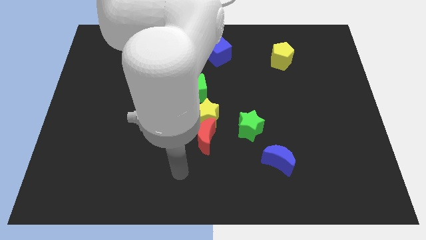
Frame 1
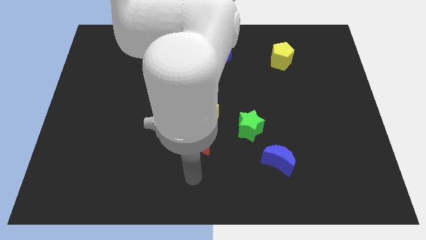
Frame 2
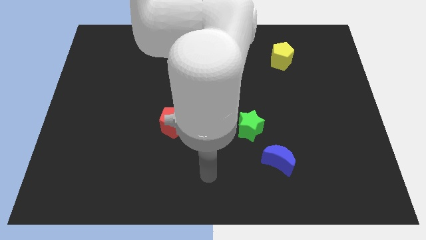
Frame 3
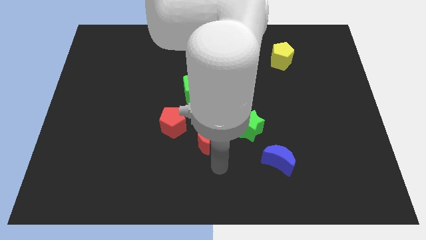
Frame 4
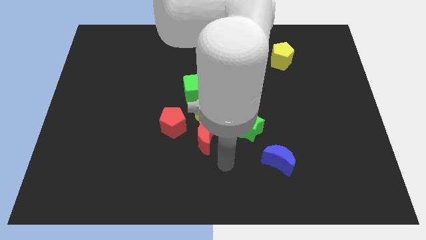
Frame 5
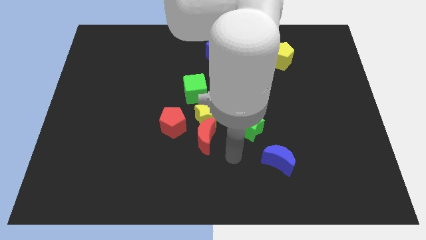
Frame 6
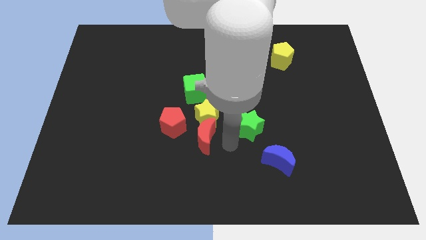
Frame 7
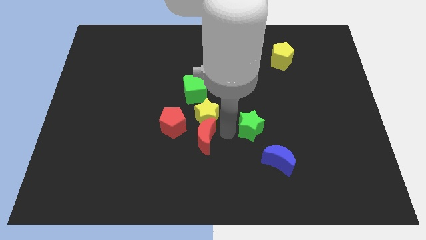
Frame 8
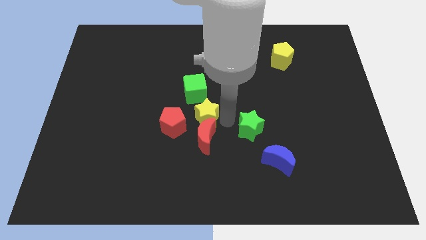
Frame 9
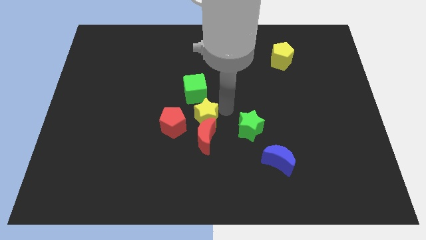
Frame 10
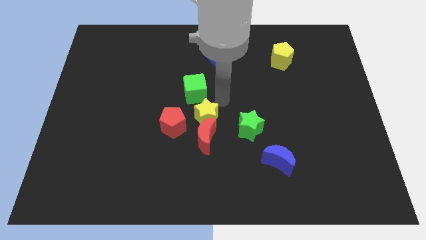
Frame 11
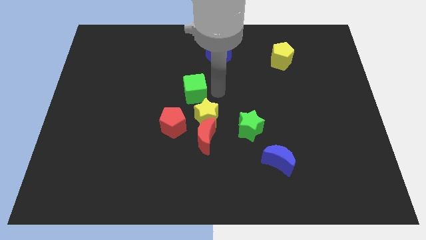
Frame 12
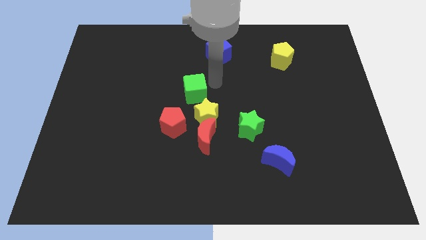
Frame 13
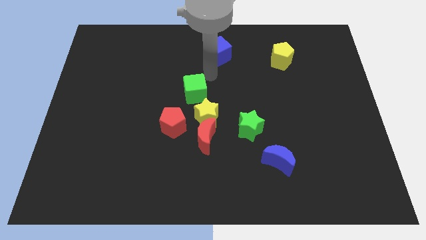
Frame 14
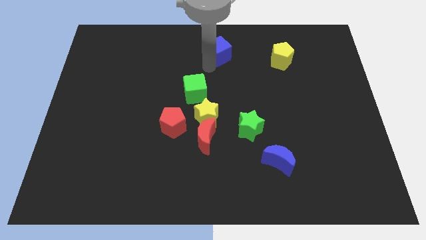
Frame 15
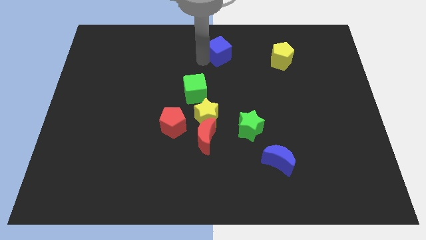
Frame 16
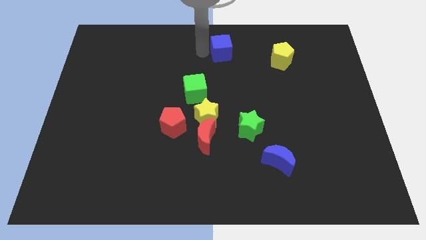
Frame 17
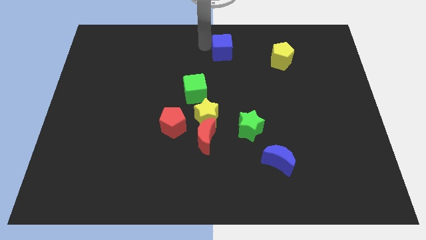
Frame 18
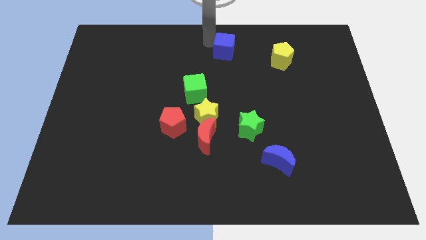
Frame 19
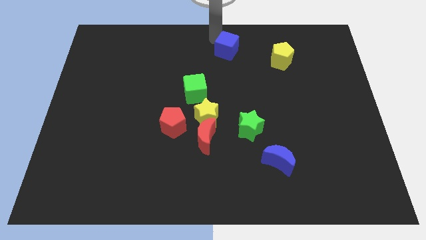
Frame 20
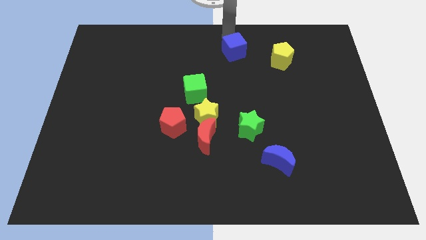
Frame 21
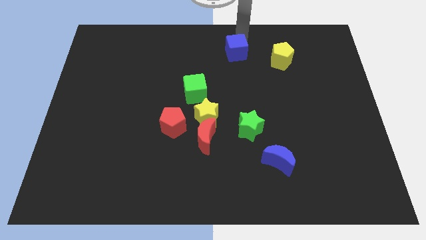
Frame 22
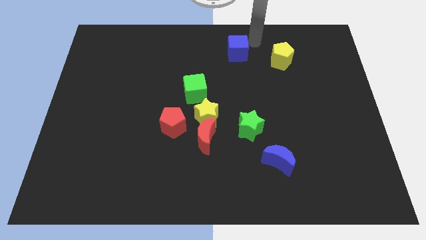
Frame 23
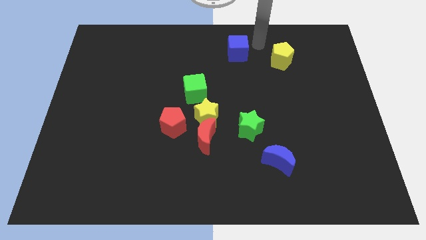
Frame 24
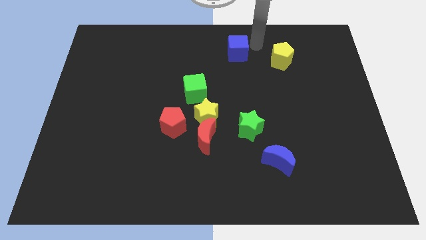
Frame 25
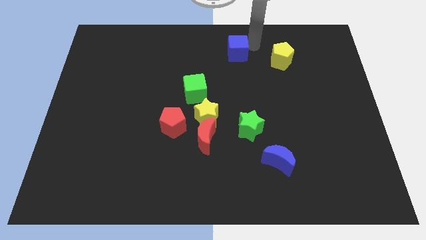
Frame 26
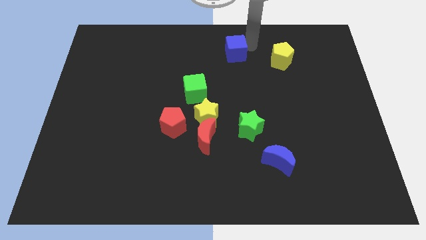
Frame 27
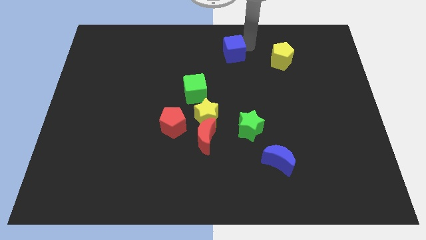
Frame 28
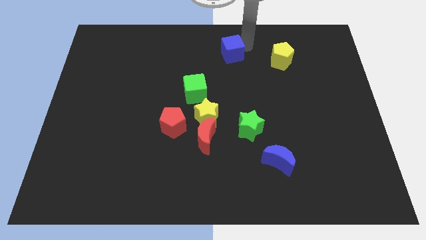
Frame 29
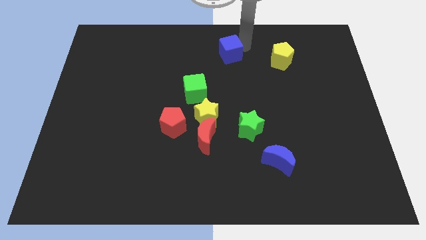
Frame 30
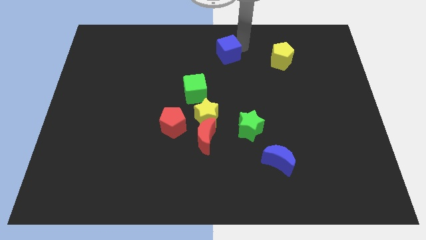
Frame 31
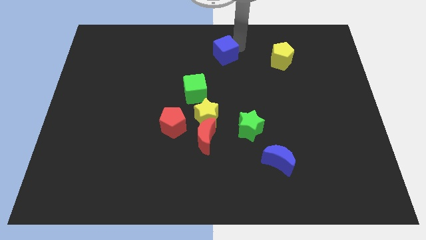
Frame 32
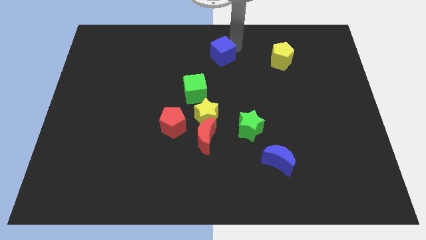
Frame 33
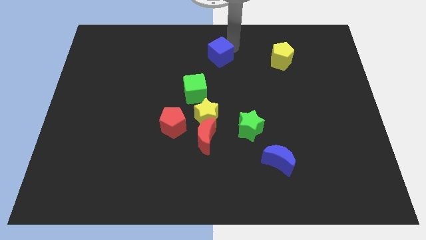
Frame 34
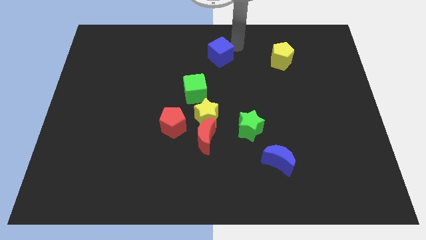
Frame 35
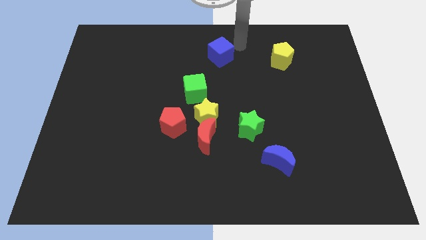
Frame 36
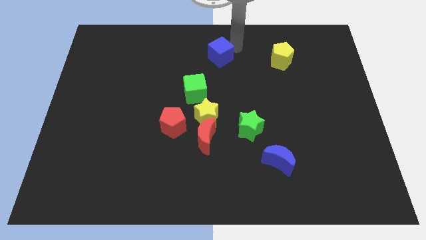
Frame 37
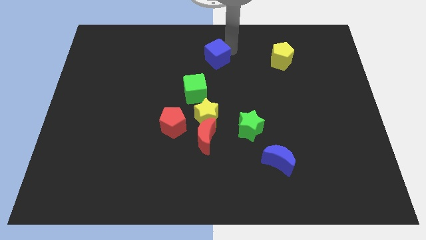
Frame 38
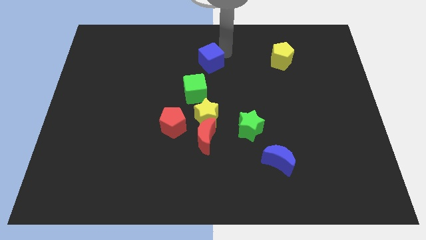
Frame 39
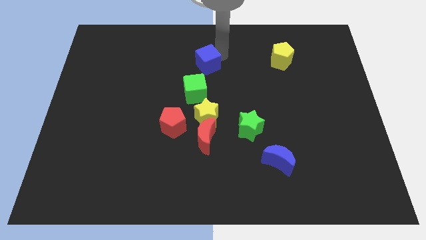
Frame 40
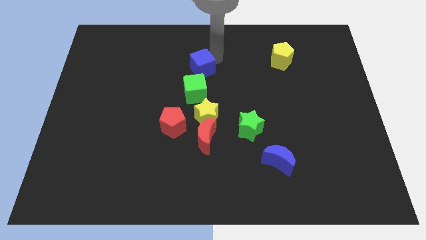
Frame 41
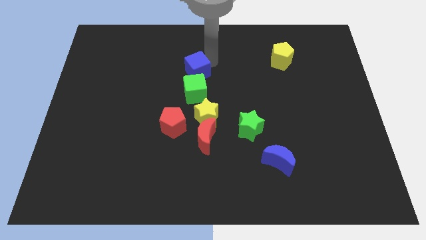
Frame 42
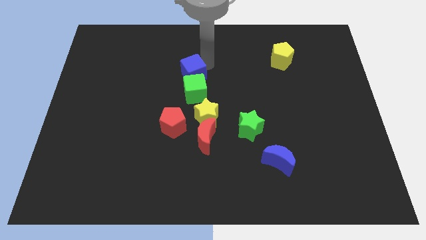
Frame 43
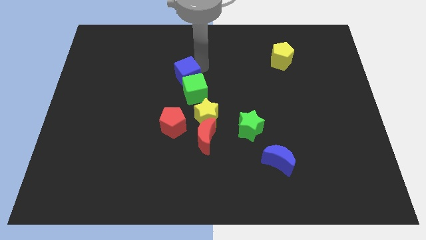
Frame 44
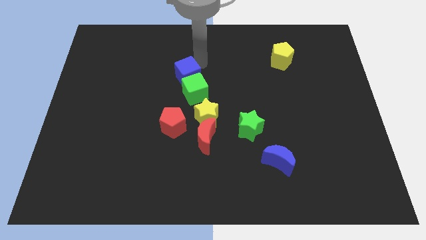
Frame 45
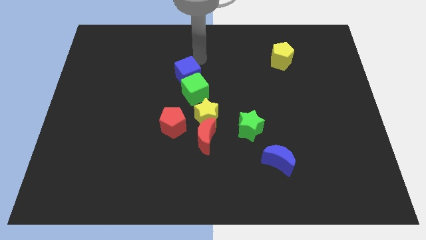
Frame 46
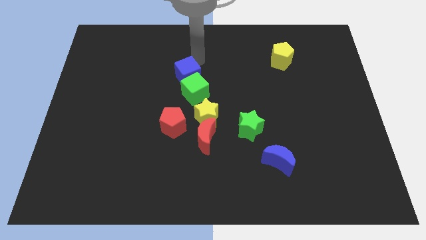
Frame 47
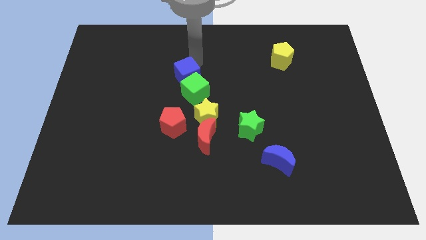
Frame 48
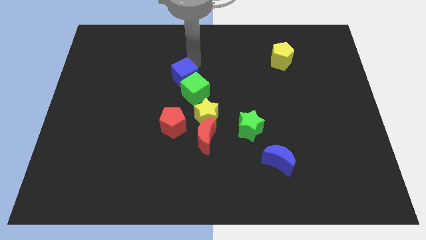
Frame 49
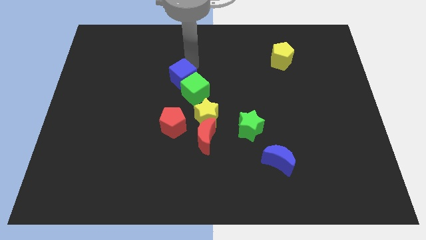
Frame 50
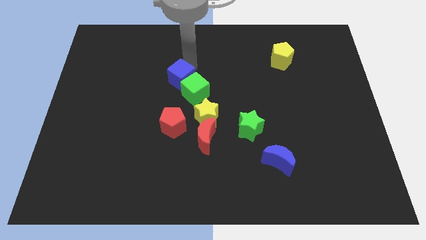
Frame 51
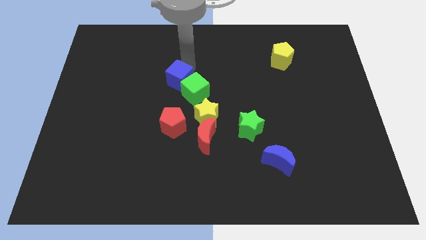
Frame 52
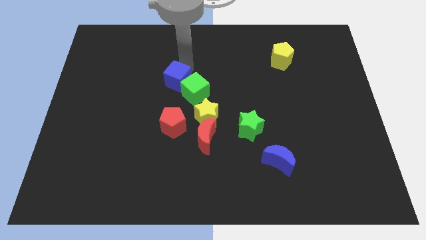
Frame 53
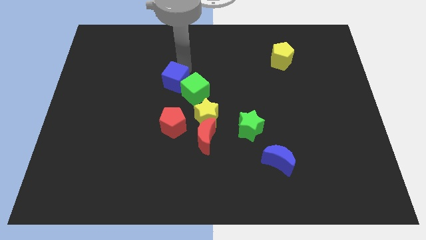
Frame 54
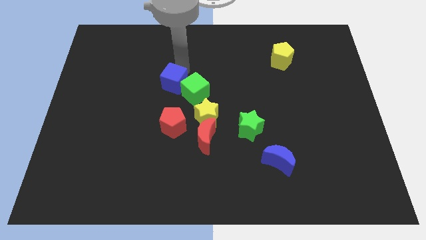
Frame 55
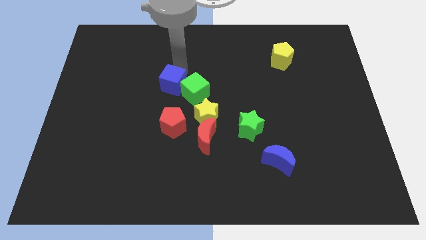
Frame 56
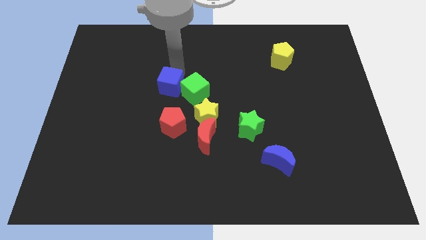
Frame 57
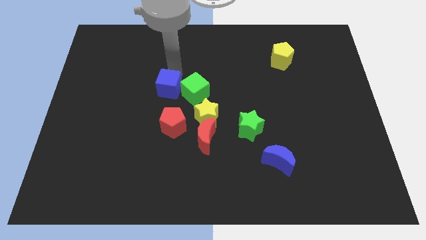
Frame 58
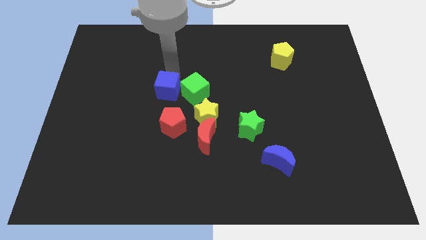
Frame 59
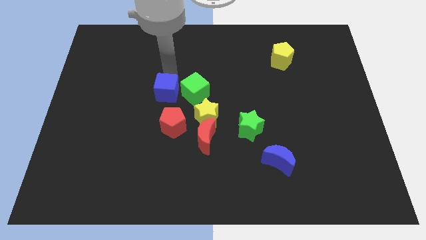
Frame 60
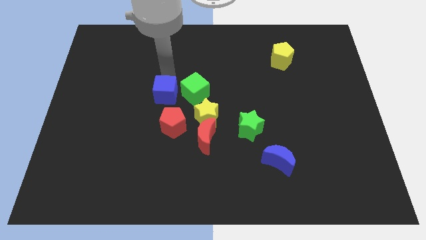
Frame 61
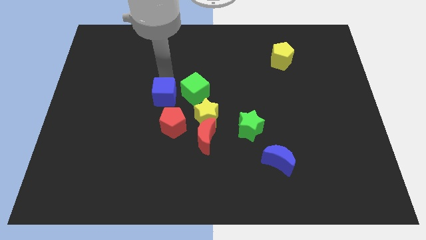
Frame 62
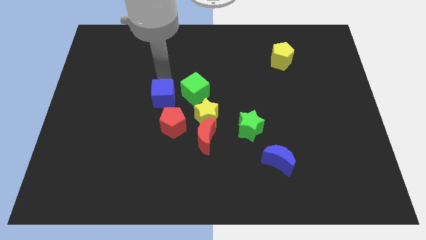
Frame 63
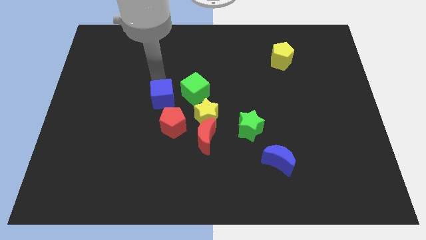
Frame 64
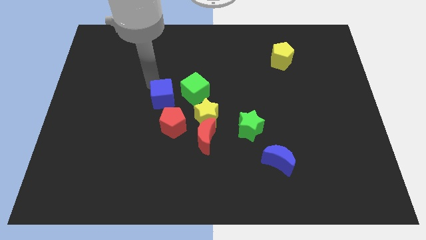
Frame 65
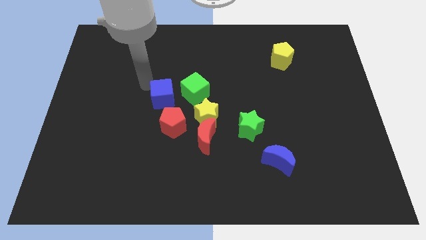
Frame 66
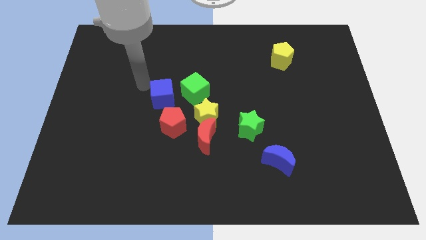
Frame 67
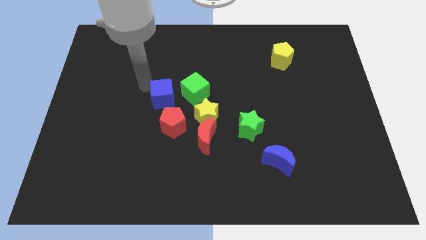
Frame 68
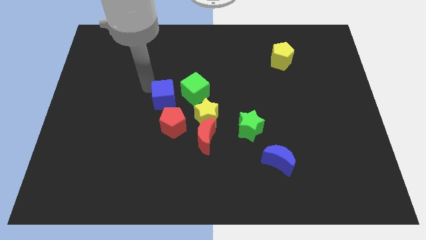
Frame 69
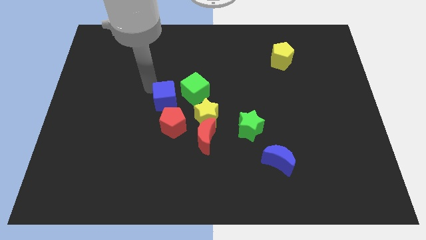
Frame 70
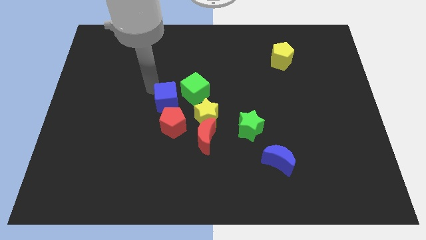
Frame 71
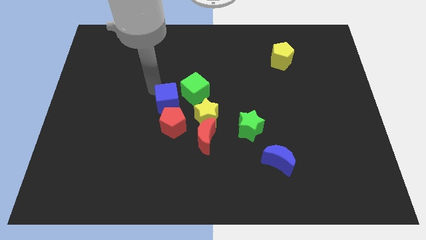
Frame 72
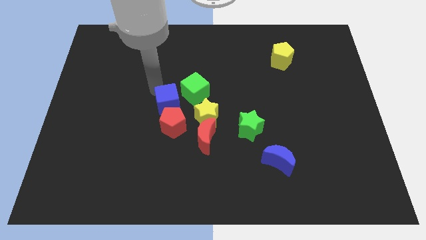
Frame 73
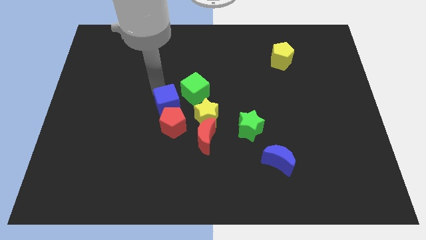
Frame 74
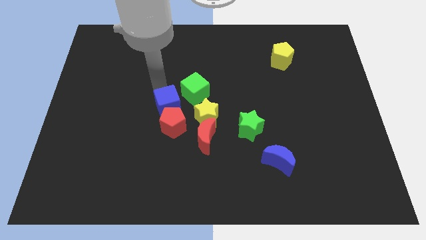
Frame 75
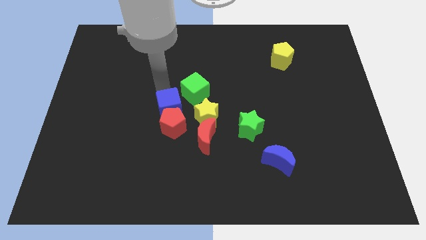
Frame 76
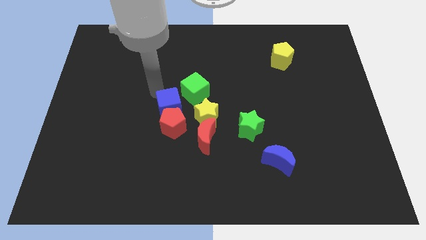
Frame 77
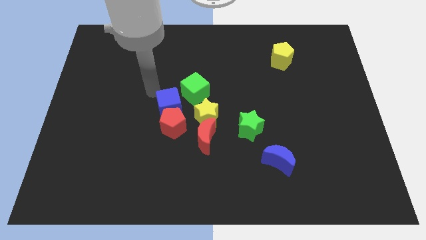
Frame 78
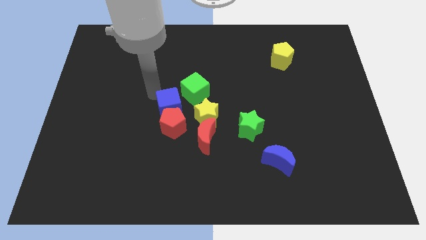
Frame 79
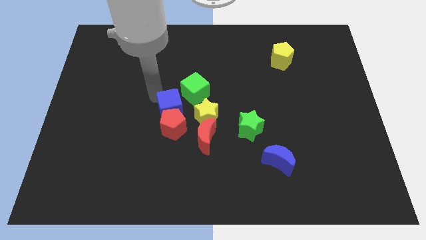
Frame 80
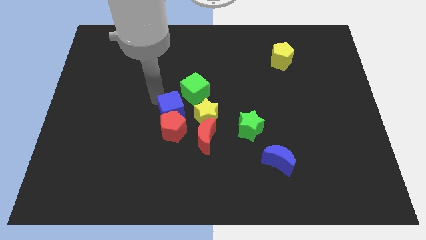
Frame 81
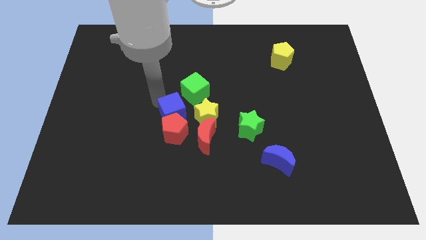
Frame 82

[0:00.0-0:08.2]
push the blue cube to the bottom of the green cube
